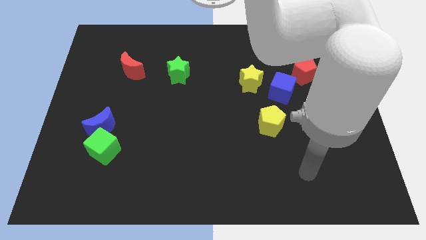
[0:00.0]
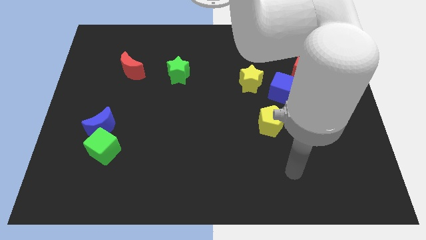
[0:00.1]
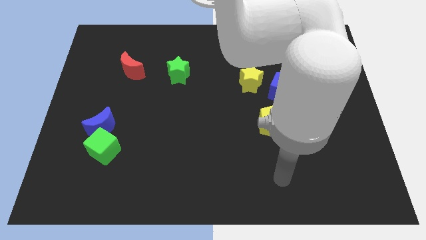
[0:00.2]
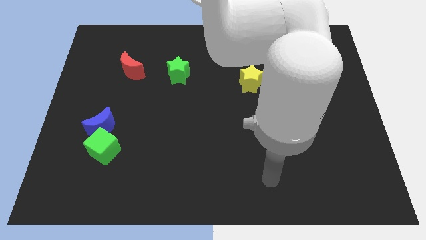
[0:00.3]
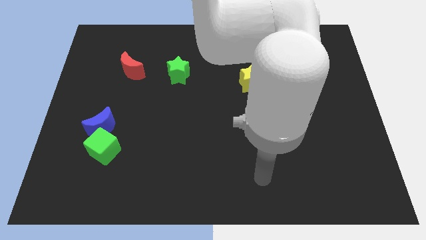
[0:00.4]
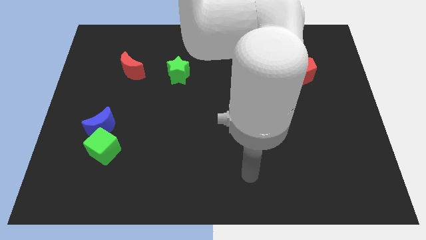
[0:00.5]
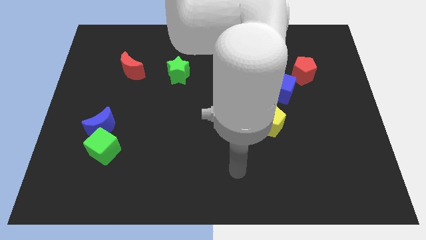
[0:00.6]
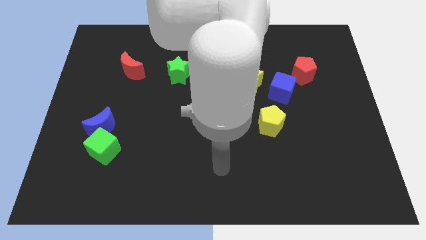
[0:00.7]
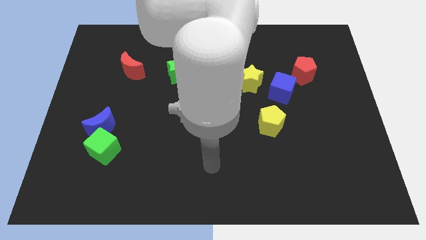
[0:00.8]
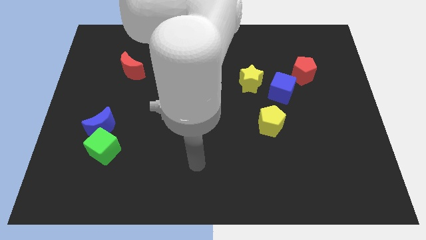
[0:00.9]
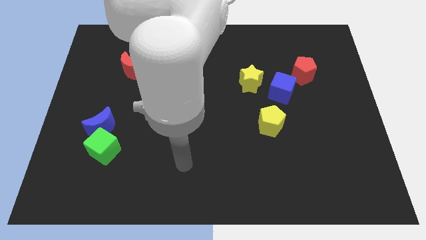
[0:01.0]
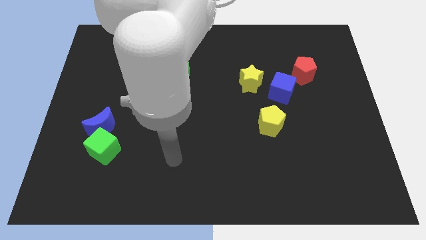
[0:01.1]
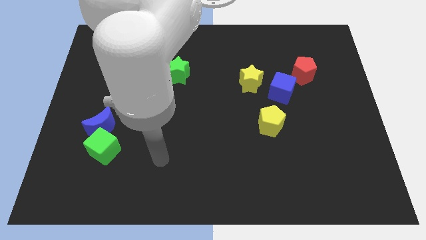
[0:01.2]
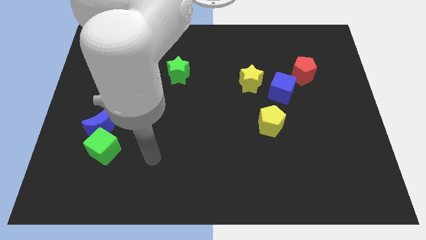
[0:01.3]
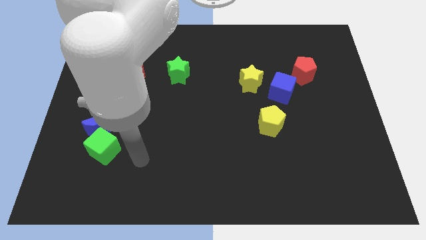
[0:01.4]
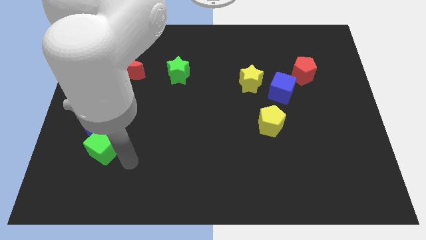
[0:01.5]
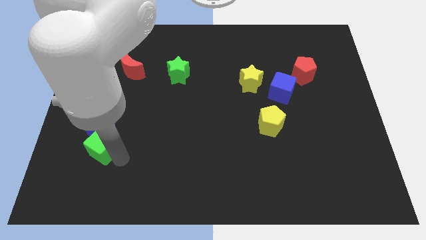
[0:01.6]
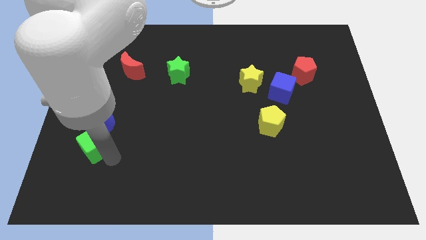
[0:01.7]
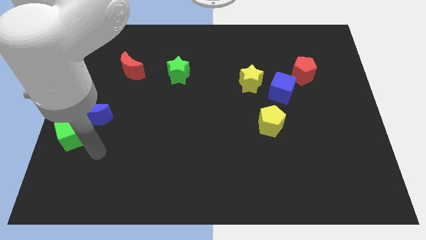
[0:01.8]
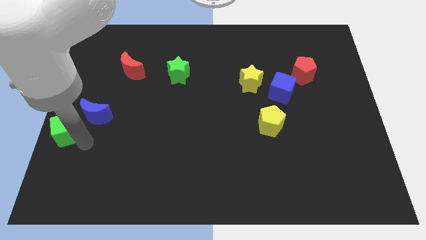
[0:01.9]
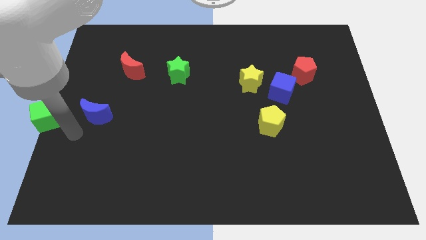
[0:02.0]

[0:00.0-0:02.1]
separate the blue moon from the green cube

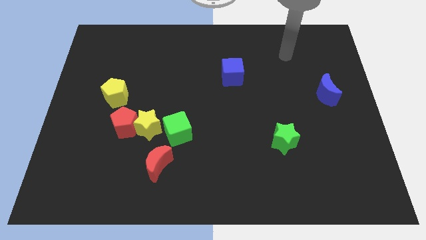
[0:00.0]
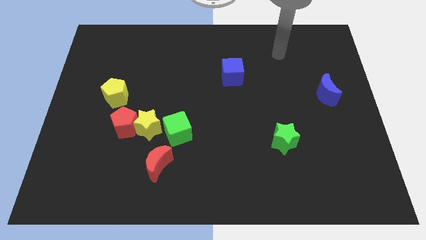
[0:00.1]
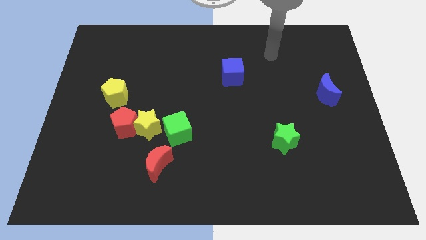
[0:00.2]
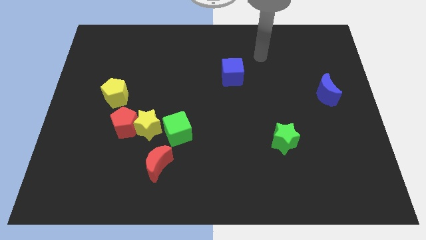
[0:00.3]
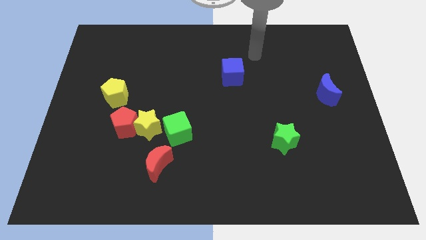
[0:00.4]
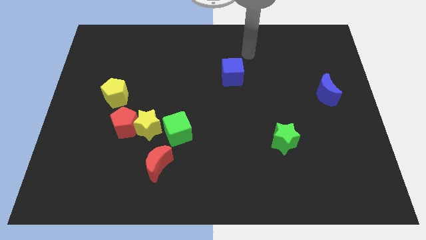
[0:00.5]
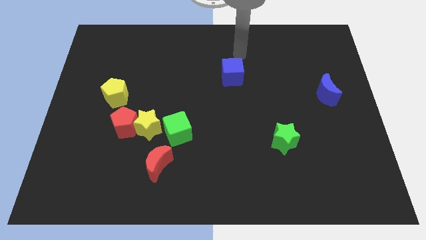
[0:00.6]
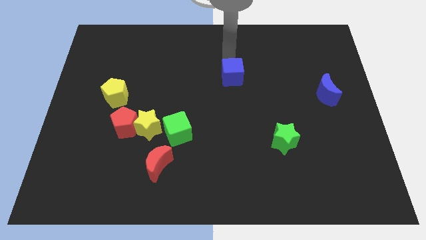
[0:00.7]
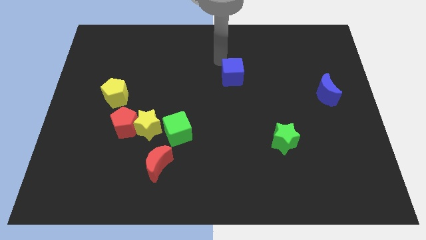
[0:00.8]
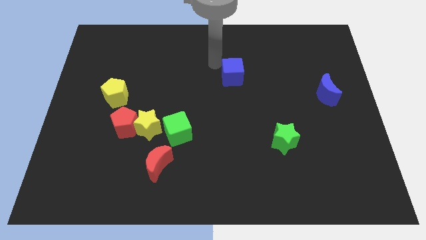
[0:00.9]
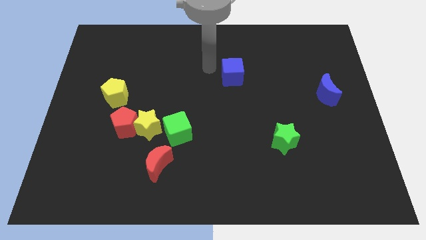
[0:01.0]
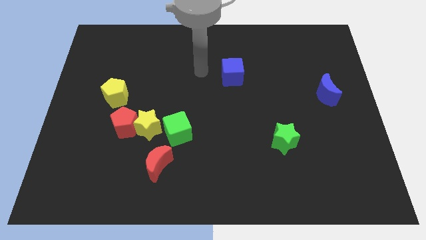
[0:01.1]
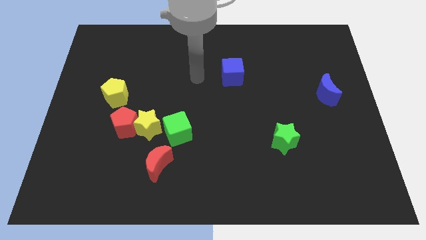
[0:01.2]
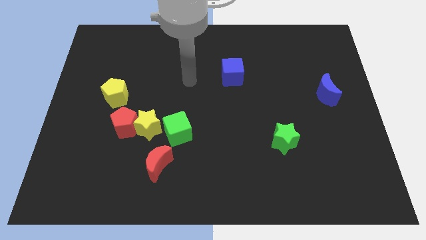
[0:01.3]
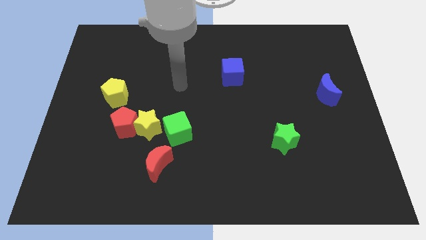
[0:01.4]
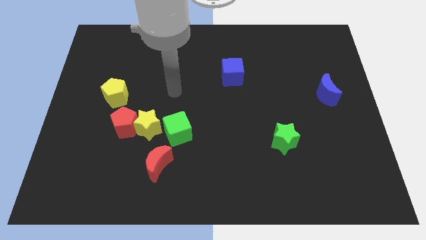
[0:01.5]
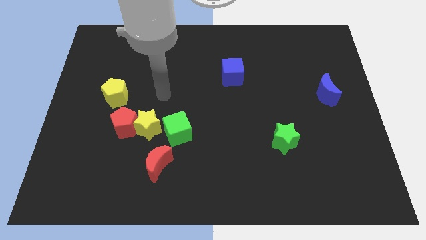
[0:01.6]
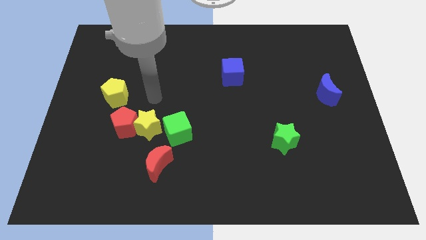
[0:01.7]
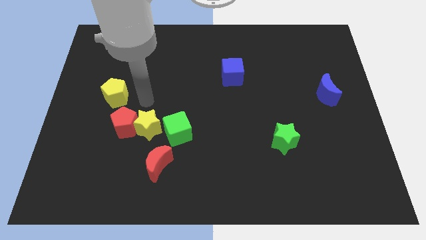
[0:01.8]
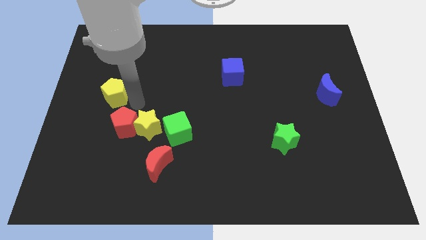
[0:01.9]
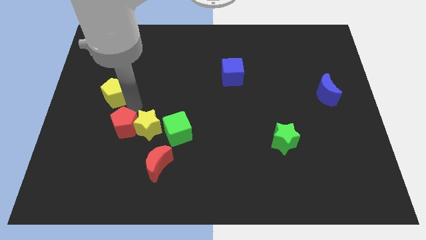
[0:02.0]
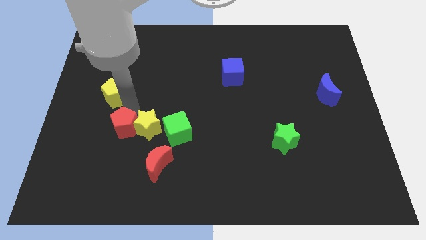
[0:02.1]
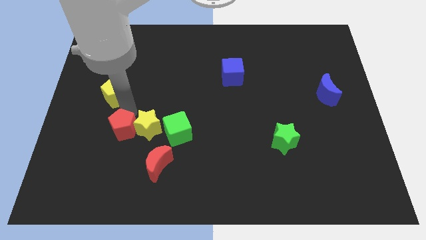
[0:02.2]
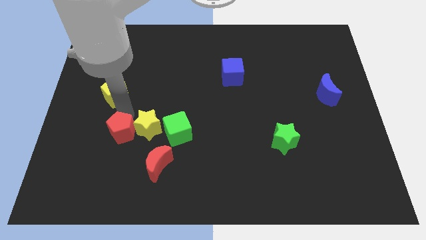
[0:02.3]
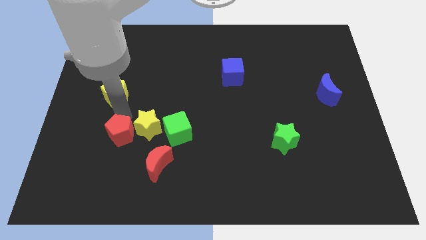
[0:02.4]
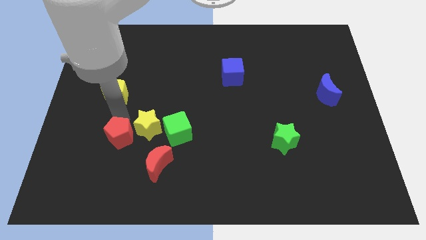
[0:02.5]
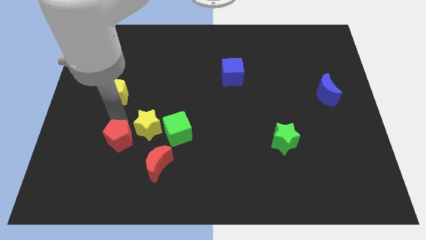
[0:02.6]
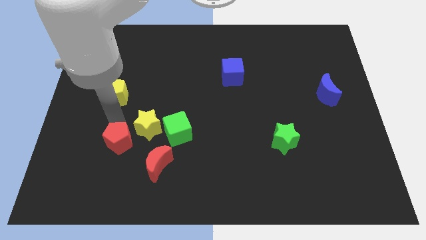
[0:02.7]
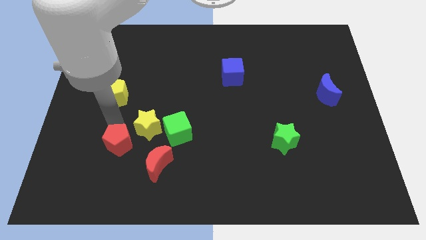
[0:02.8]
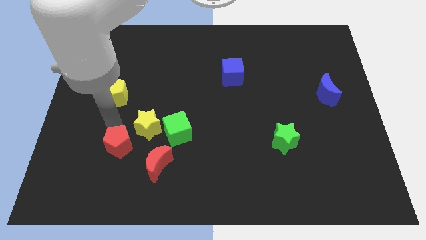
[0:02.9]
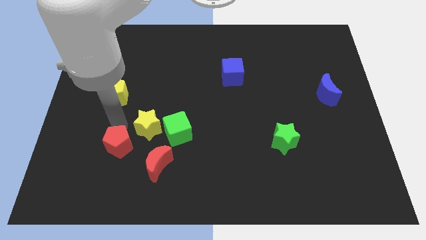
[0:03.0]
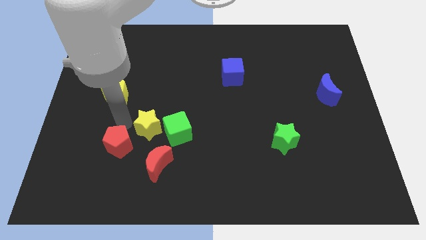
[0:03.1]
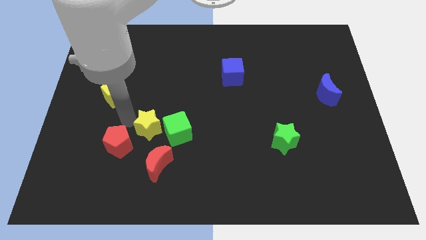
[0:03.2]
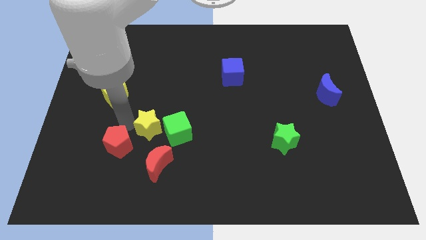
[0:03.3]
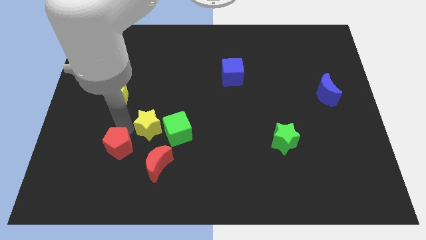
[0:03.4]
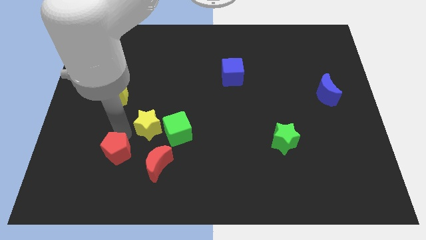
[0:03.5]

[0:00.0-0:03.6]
separate the red pentagon from the yellow star and yellow pentagon

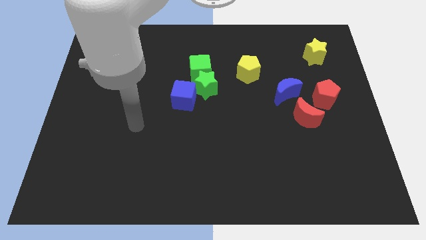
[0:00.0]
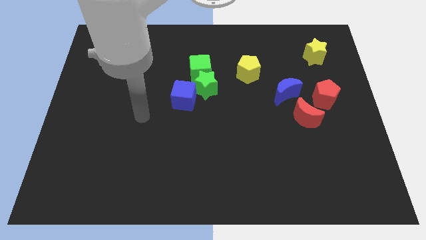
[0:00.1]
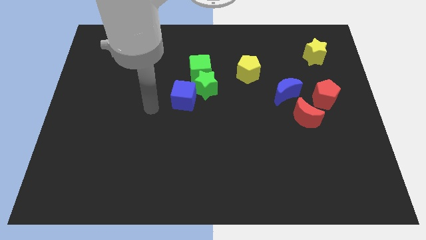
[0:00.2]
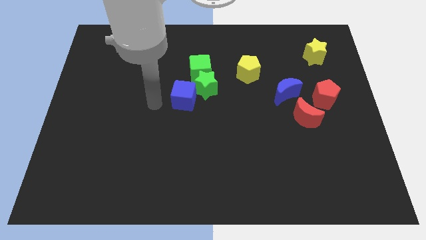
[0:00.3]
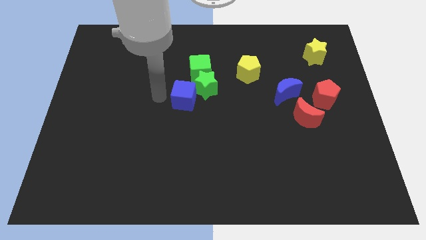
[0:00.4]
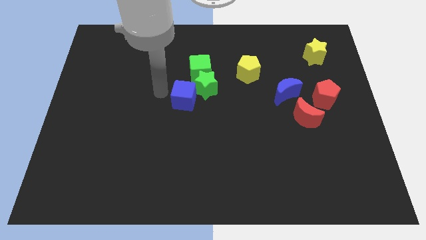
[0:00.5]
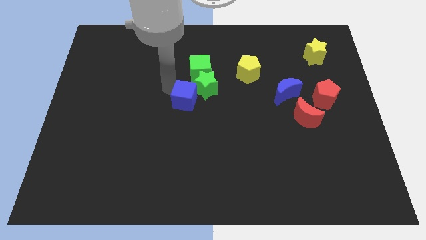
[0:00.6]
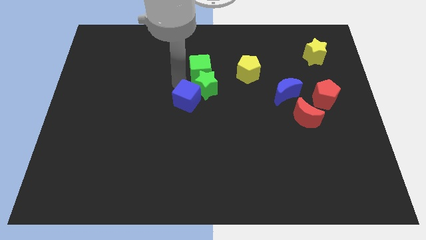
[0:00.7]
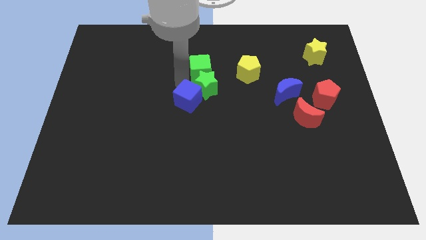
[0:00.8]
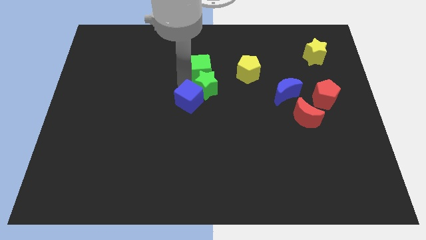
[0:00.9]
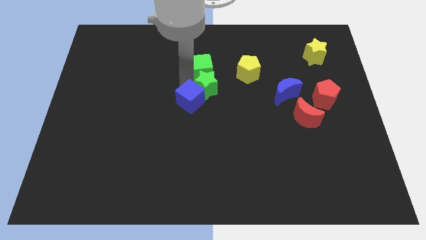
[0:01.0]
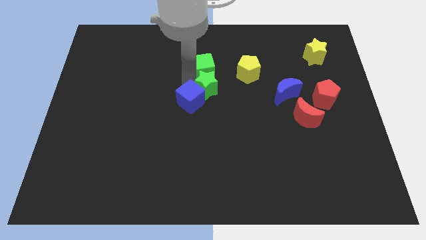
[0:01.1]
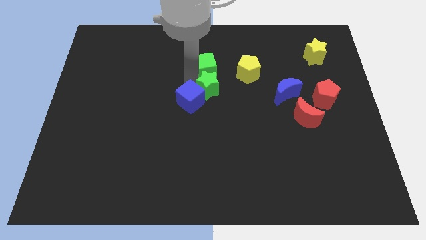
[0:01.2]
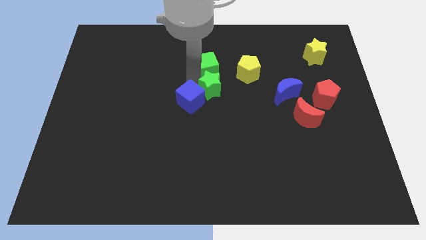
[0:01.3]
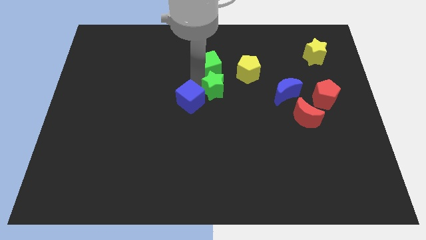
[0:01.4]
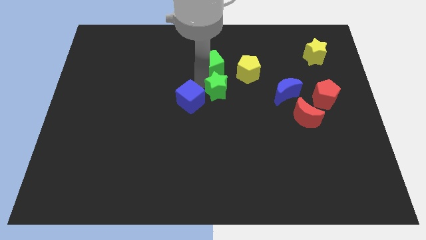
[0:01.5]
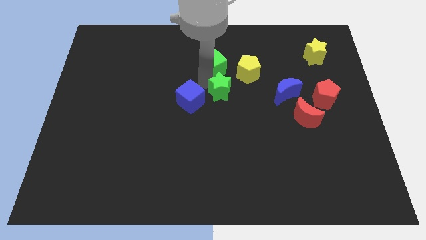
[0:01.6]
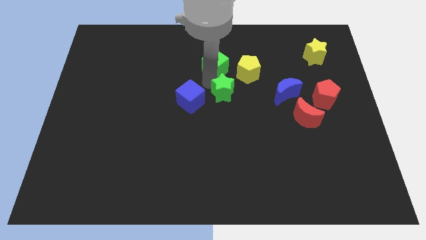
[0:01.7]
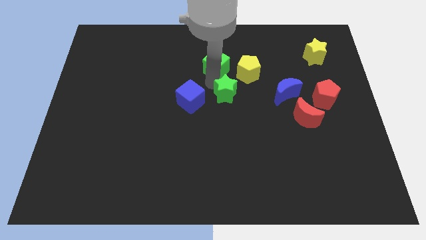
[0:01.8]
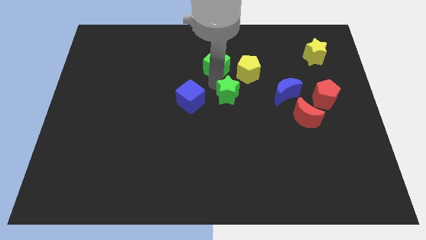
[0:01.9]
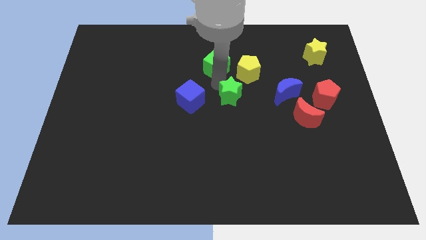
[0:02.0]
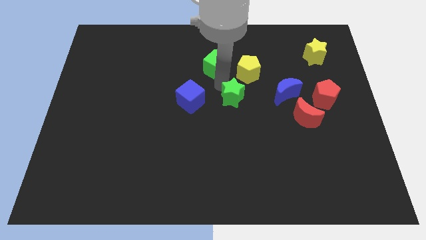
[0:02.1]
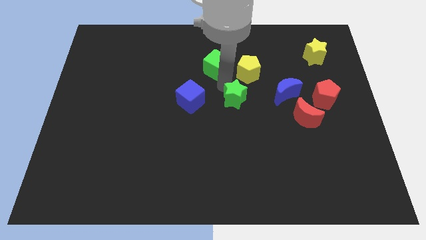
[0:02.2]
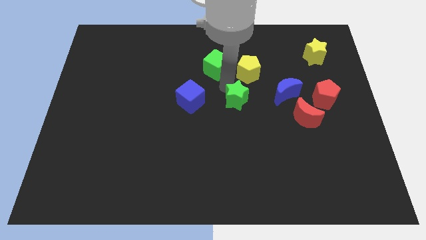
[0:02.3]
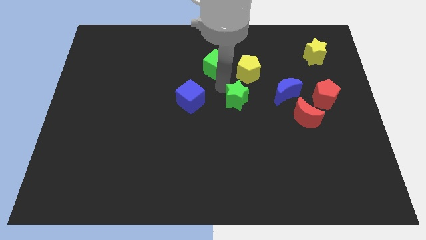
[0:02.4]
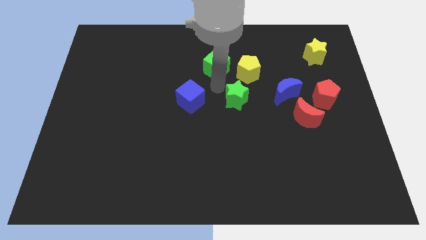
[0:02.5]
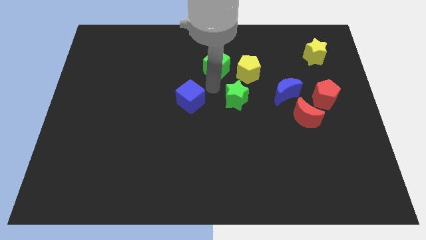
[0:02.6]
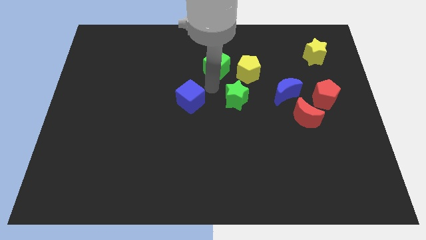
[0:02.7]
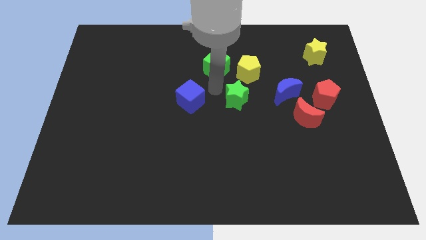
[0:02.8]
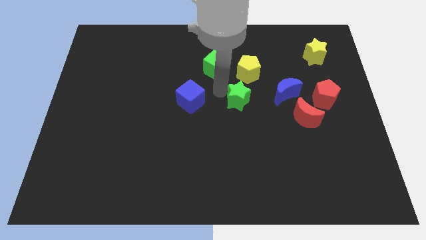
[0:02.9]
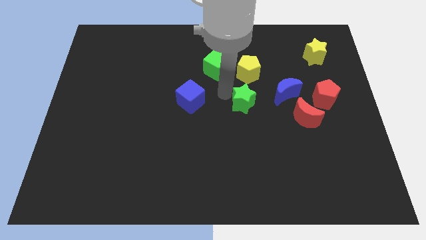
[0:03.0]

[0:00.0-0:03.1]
move the green star away from the green cube and blue cube

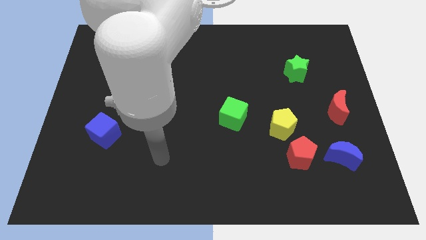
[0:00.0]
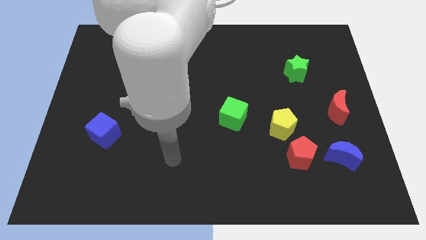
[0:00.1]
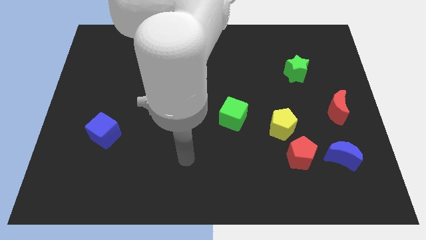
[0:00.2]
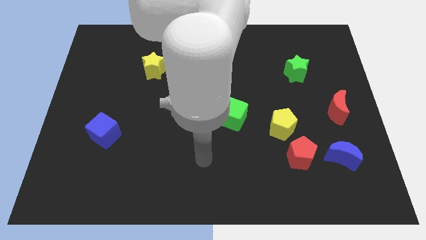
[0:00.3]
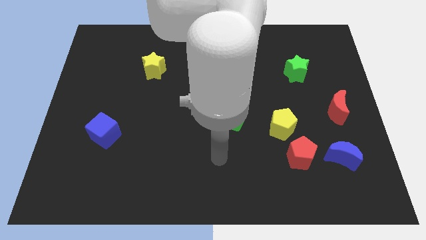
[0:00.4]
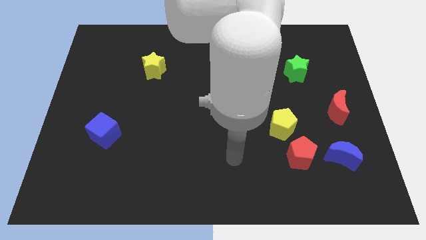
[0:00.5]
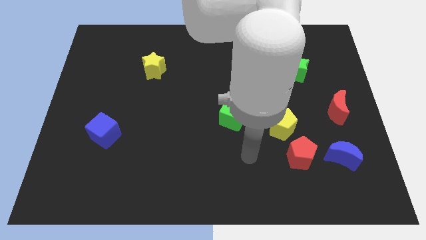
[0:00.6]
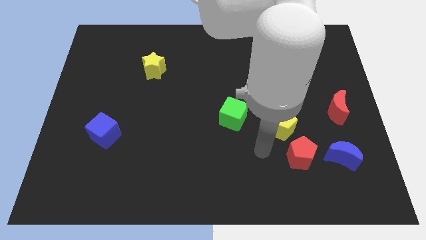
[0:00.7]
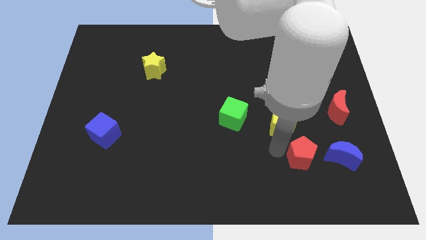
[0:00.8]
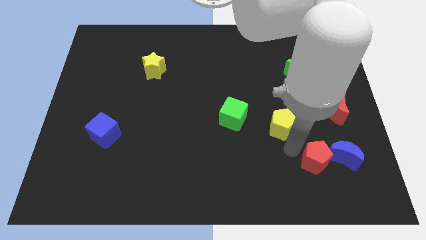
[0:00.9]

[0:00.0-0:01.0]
pull the yellow pentagon apart from the red pentagon
